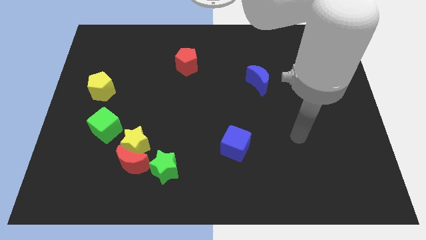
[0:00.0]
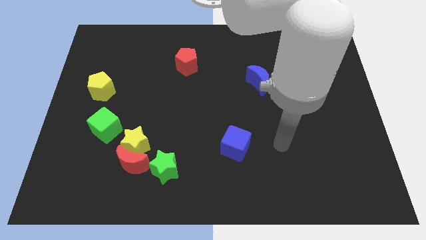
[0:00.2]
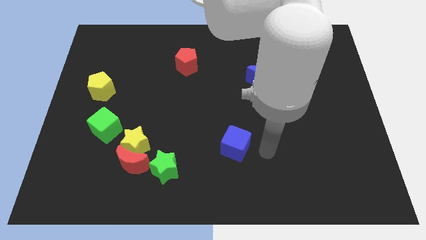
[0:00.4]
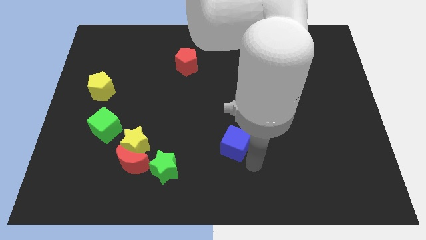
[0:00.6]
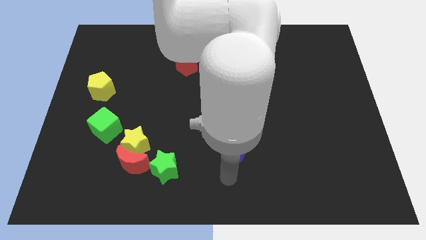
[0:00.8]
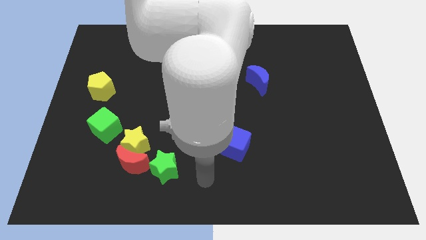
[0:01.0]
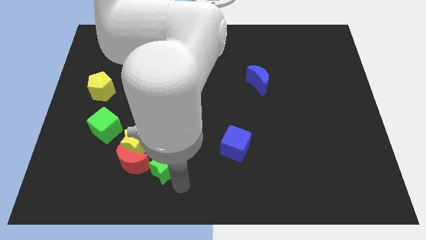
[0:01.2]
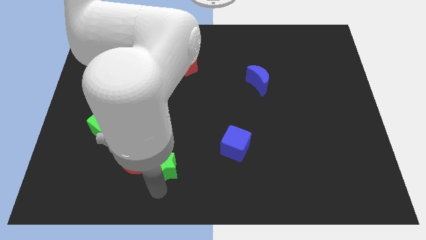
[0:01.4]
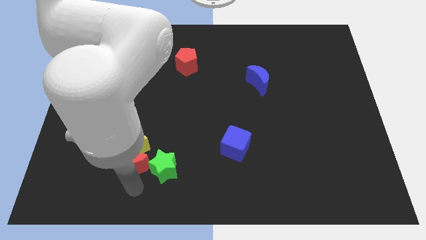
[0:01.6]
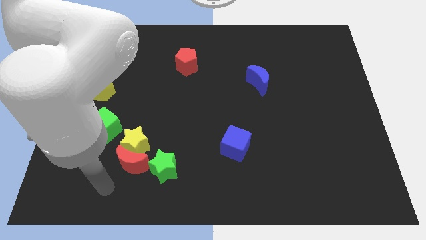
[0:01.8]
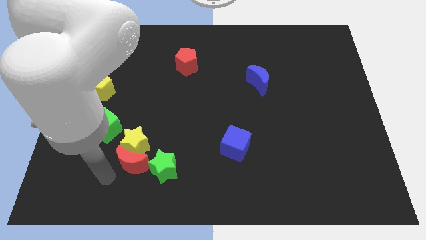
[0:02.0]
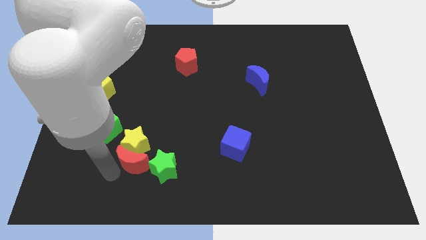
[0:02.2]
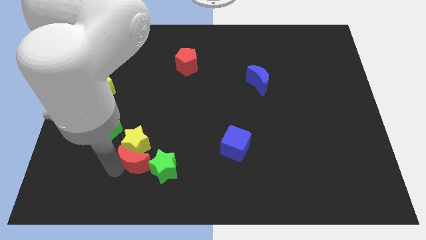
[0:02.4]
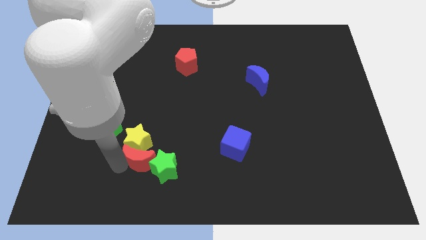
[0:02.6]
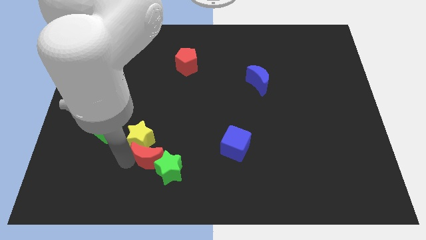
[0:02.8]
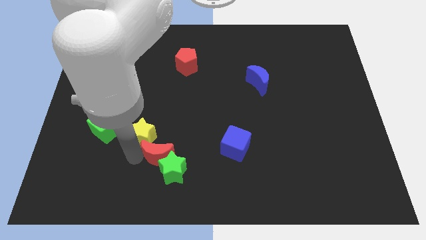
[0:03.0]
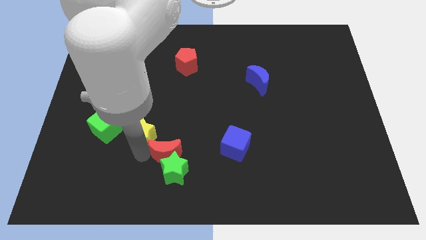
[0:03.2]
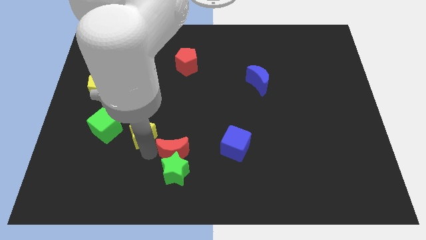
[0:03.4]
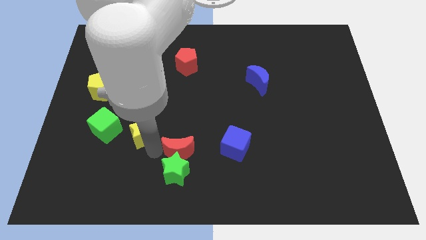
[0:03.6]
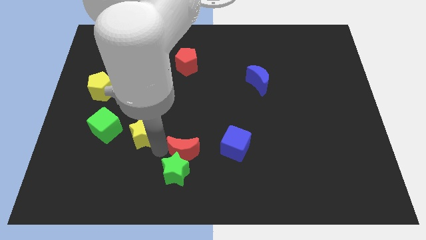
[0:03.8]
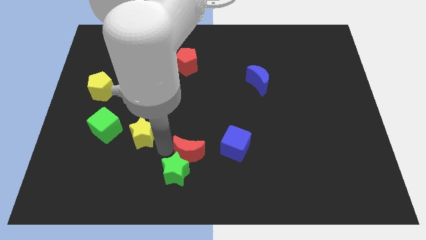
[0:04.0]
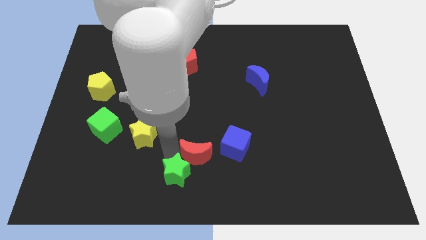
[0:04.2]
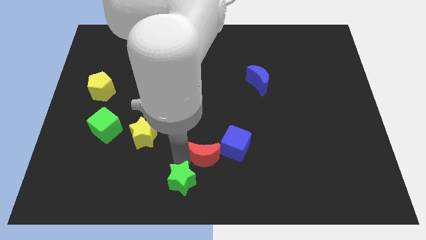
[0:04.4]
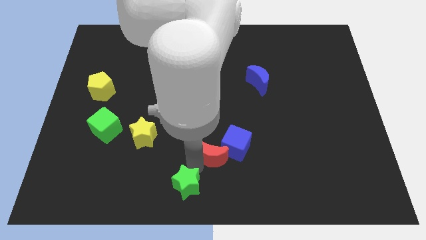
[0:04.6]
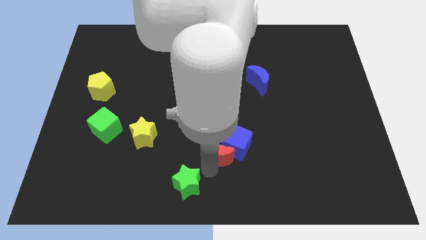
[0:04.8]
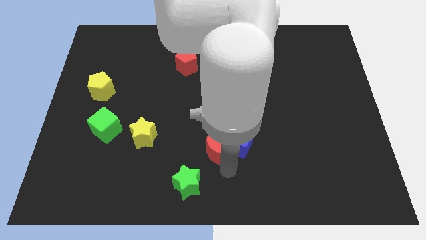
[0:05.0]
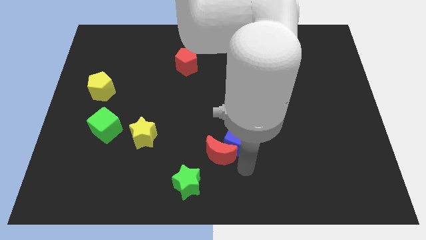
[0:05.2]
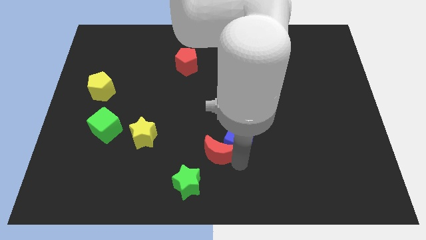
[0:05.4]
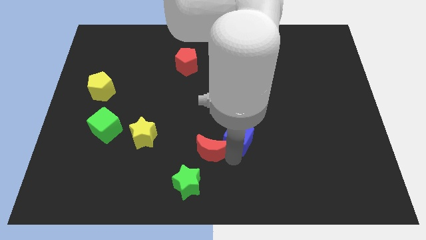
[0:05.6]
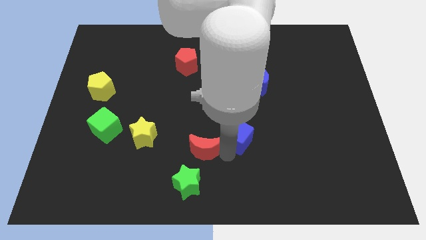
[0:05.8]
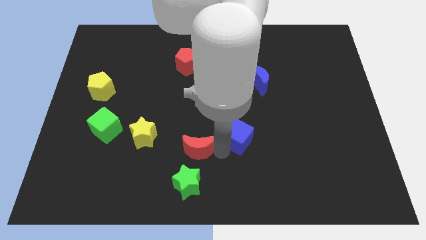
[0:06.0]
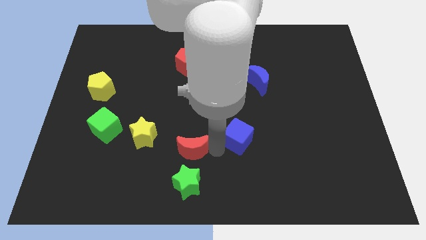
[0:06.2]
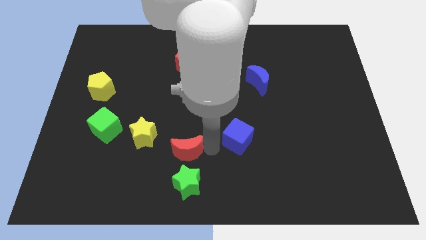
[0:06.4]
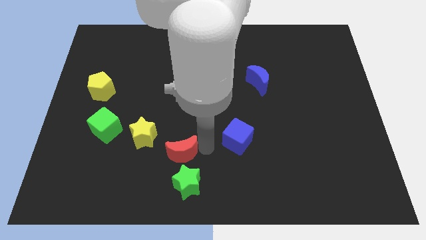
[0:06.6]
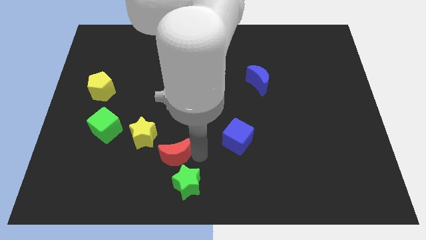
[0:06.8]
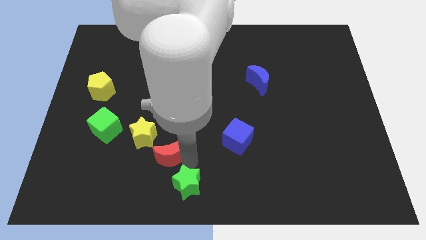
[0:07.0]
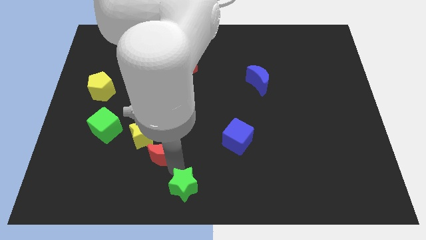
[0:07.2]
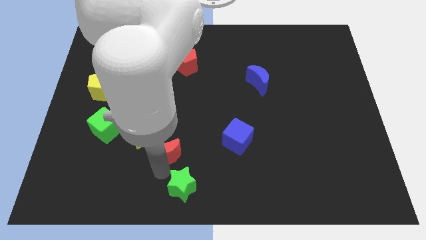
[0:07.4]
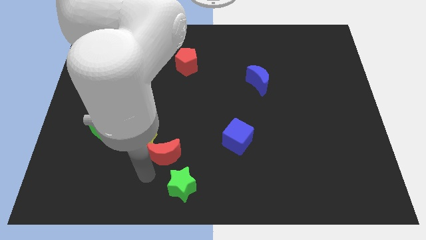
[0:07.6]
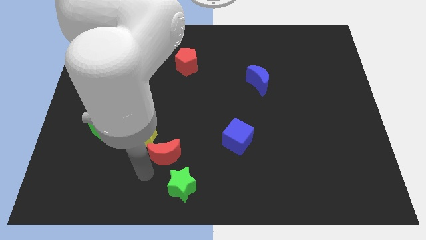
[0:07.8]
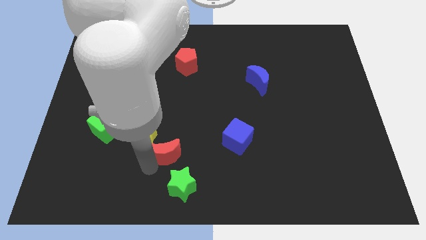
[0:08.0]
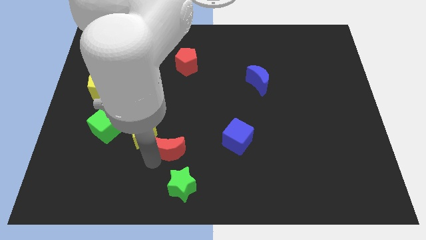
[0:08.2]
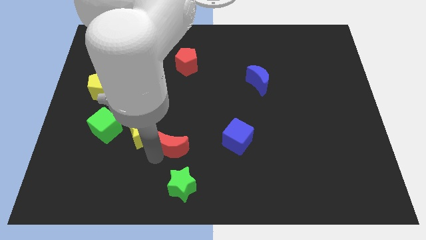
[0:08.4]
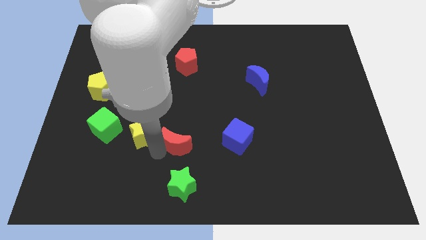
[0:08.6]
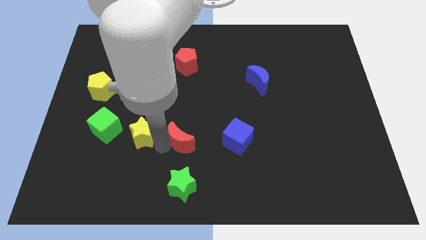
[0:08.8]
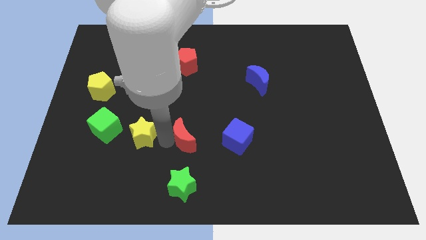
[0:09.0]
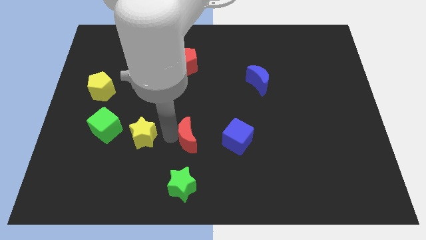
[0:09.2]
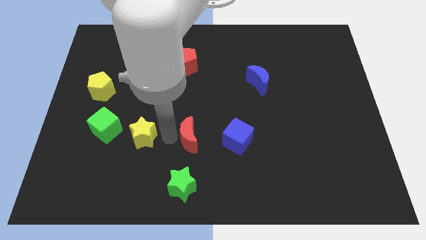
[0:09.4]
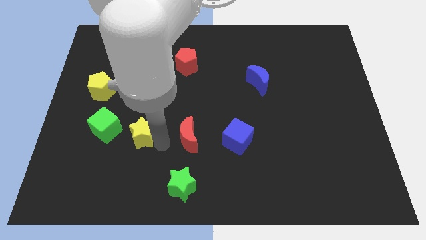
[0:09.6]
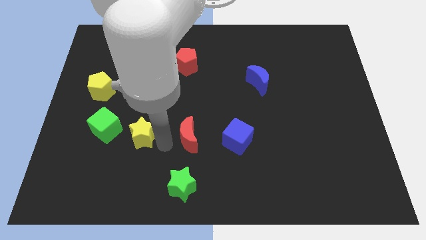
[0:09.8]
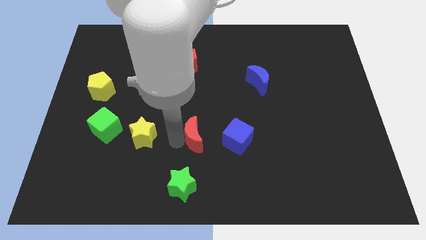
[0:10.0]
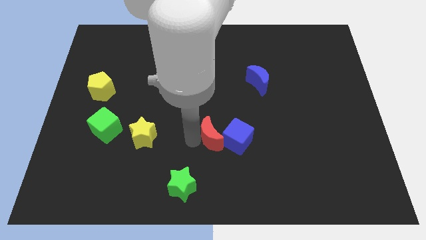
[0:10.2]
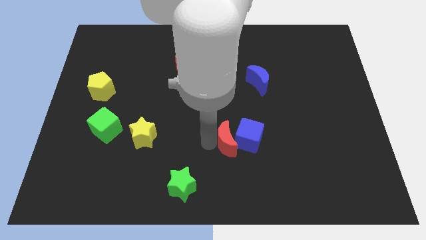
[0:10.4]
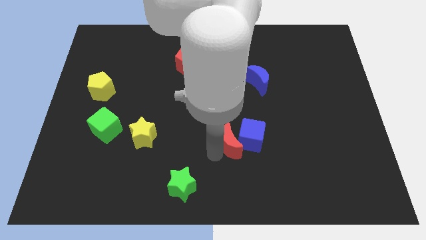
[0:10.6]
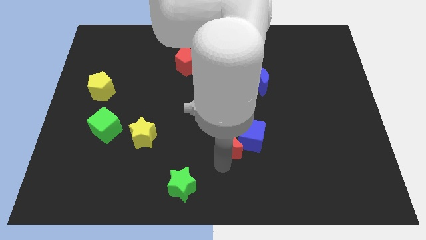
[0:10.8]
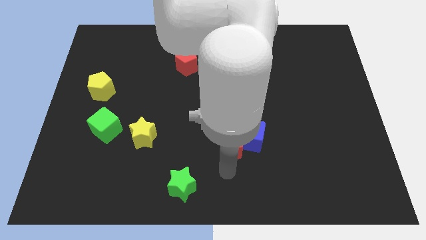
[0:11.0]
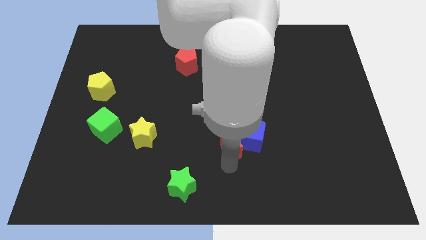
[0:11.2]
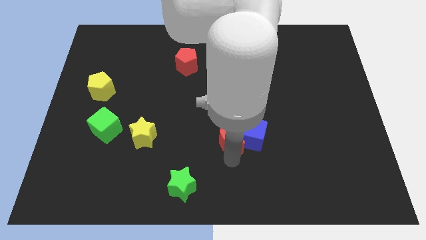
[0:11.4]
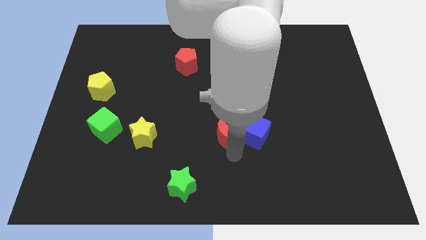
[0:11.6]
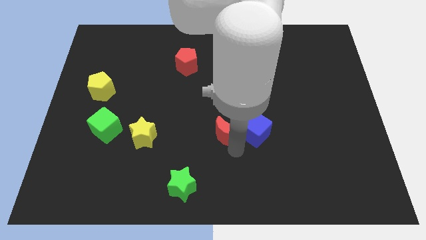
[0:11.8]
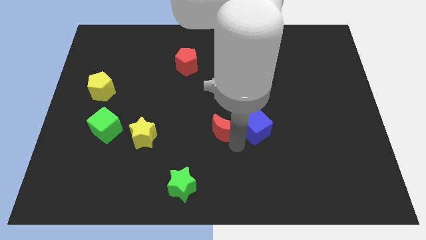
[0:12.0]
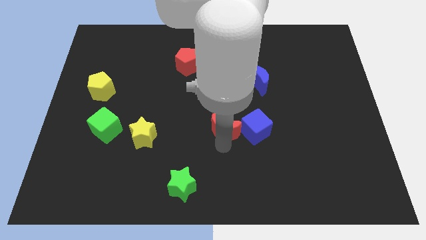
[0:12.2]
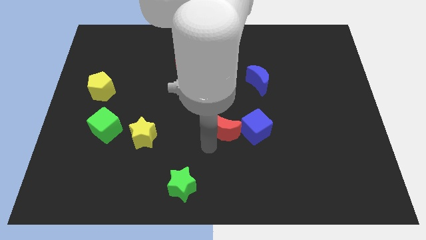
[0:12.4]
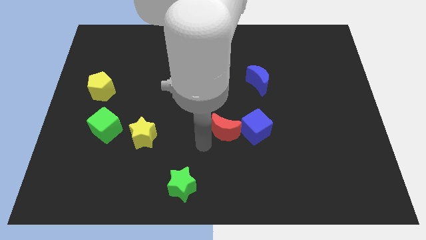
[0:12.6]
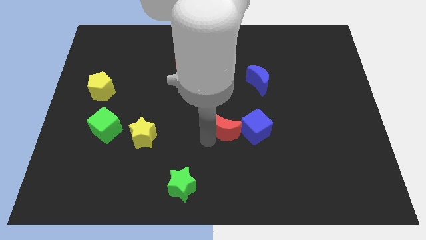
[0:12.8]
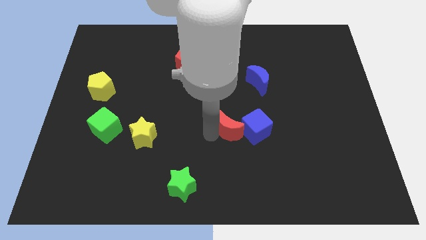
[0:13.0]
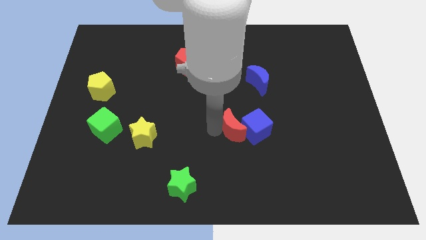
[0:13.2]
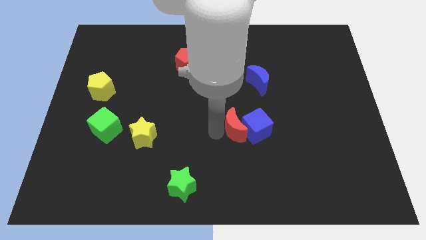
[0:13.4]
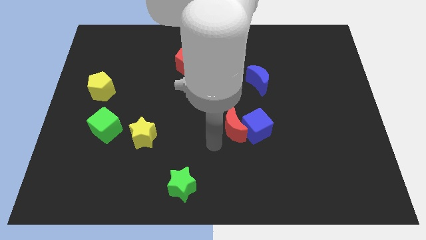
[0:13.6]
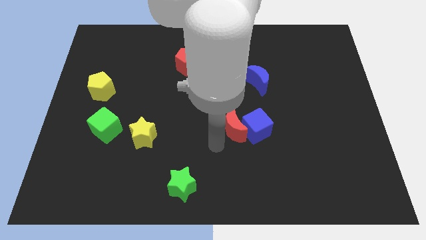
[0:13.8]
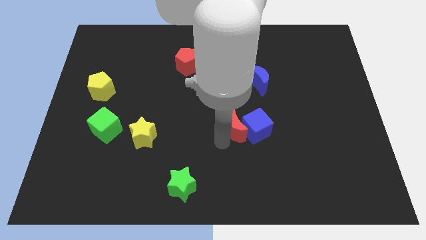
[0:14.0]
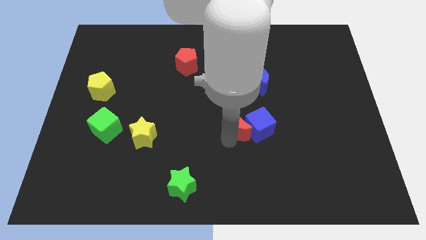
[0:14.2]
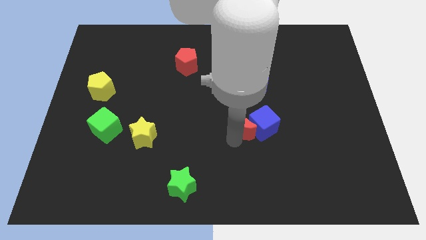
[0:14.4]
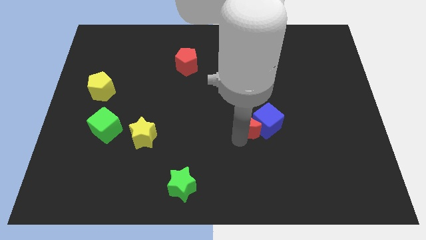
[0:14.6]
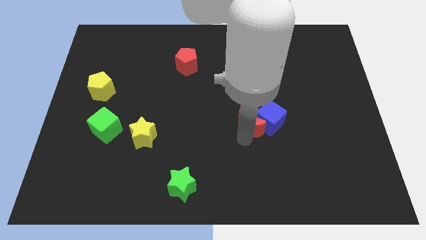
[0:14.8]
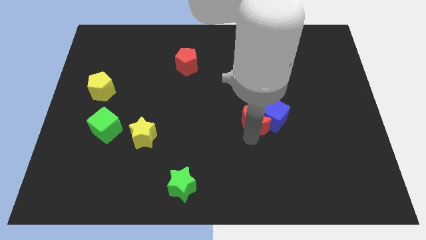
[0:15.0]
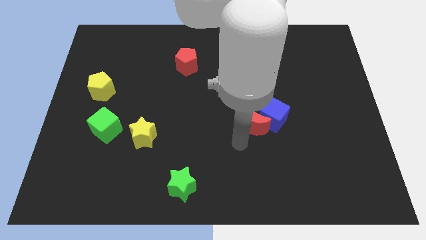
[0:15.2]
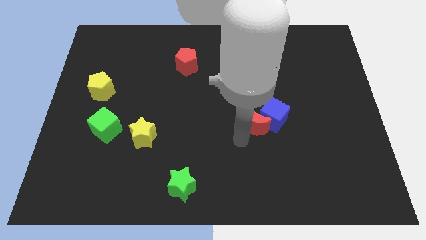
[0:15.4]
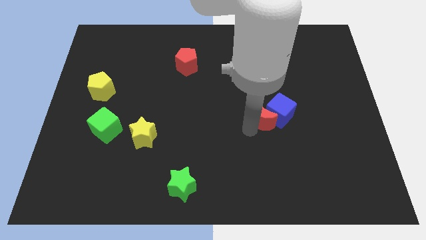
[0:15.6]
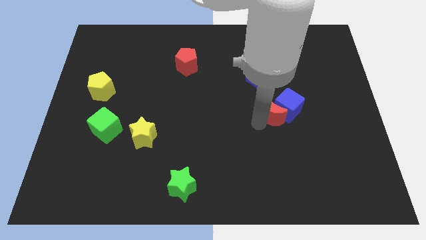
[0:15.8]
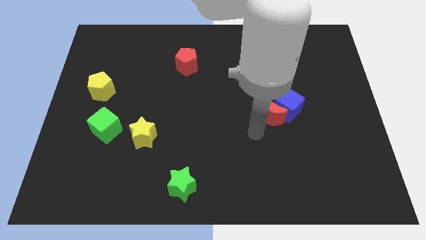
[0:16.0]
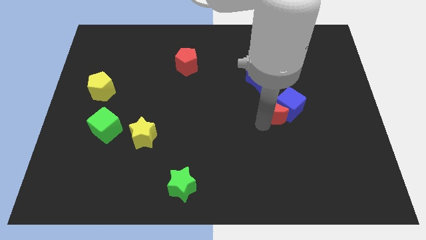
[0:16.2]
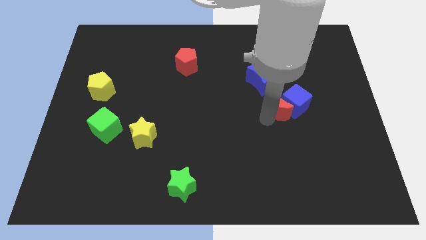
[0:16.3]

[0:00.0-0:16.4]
move the red moon to the bottom right side of the blue moon
